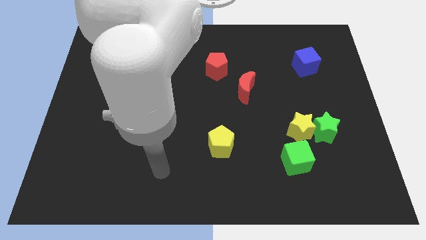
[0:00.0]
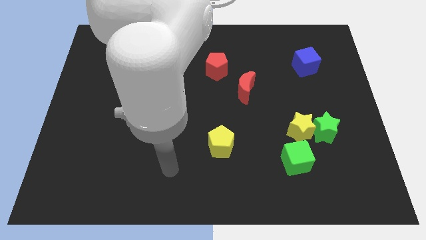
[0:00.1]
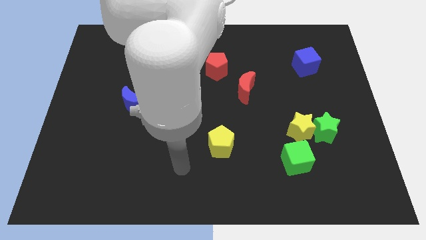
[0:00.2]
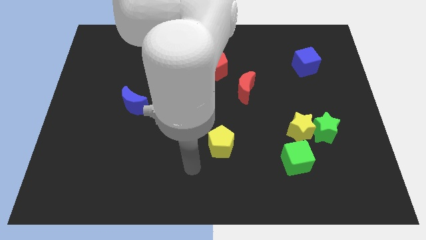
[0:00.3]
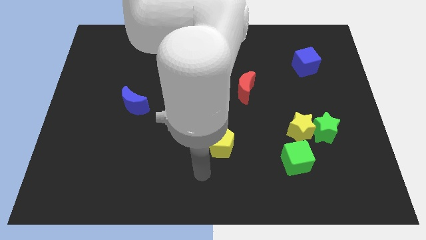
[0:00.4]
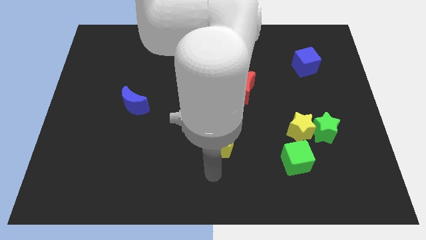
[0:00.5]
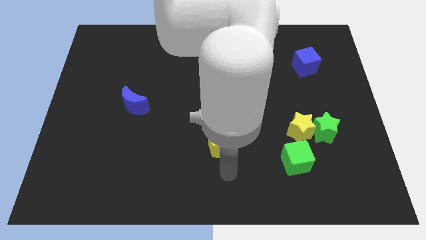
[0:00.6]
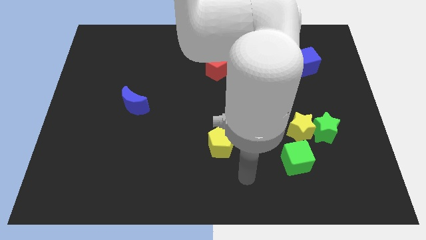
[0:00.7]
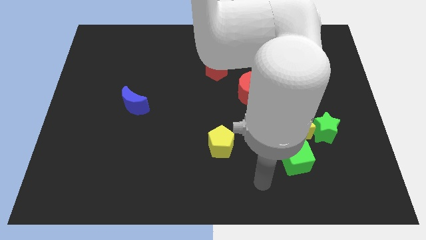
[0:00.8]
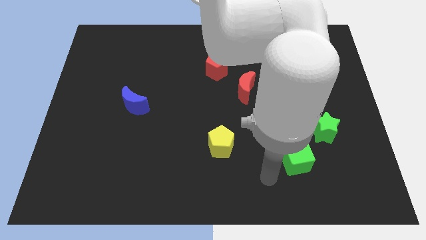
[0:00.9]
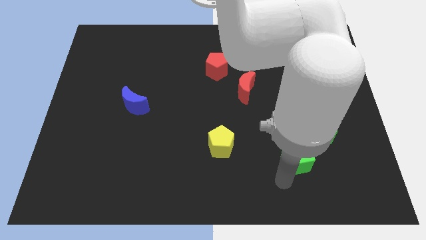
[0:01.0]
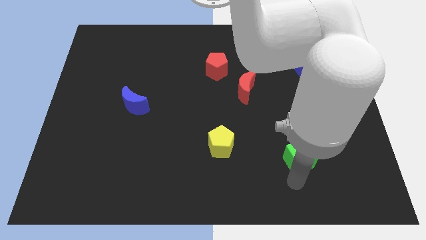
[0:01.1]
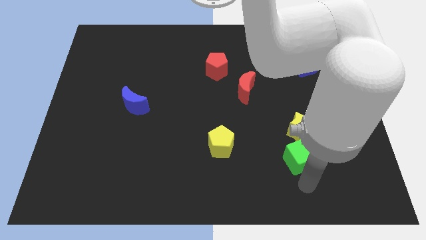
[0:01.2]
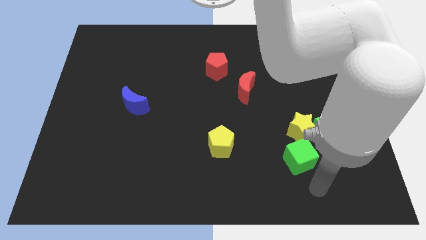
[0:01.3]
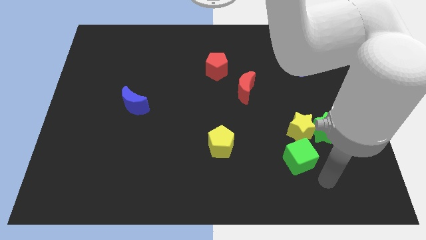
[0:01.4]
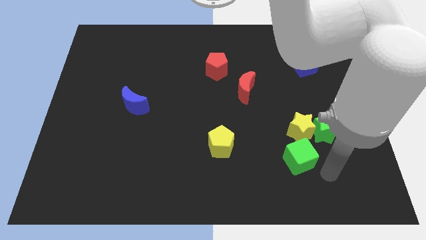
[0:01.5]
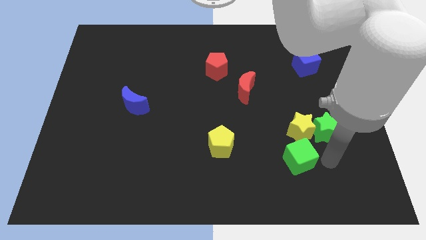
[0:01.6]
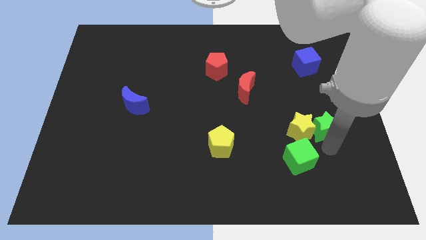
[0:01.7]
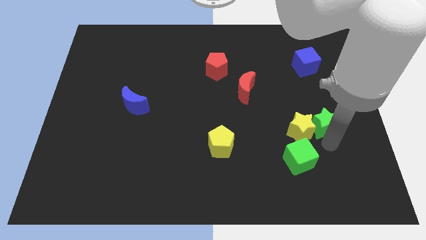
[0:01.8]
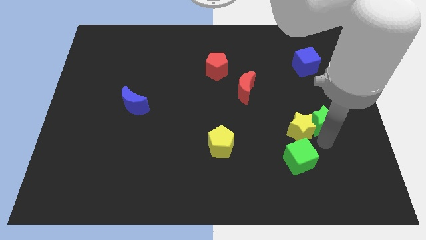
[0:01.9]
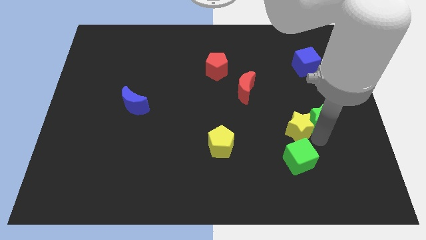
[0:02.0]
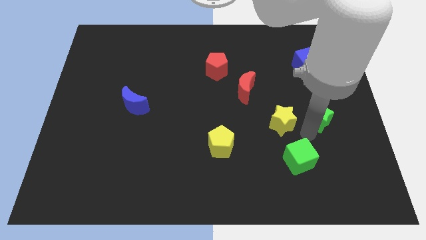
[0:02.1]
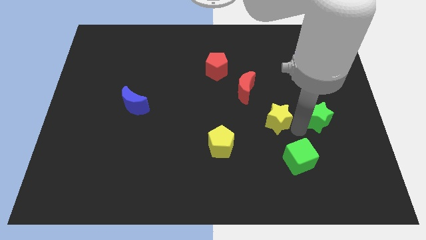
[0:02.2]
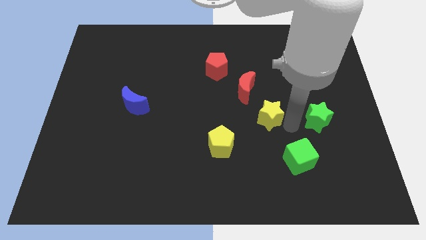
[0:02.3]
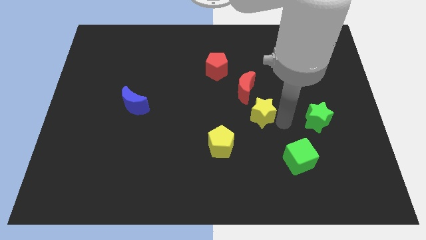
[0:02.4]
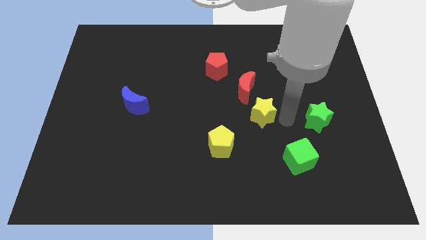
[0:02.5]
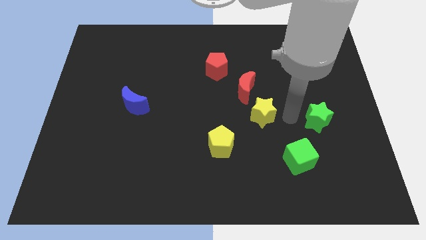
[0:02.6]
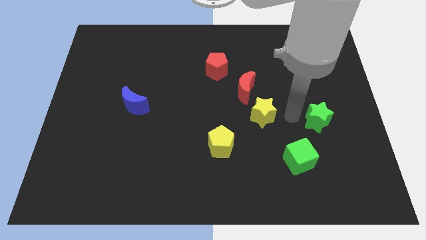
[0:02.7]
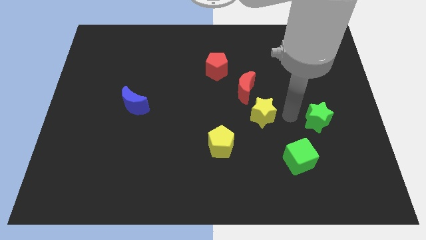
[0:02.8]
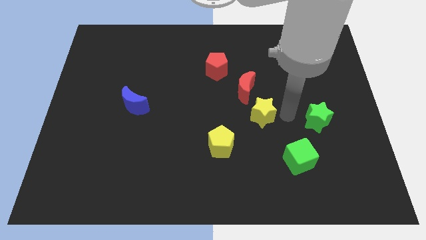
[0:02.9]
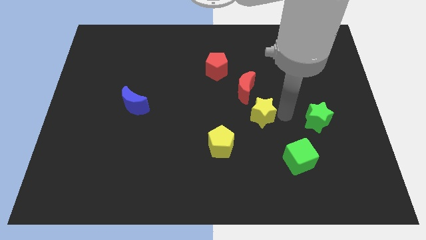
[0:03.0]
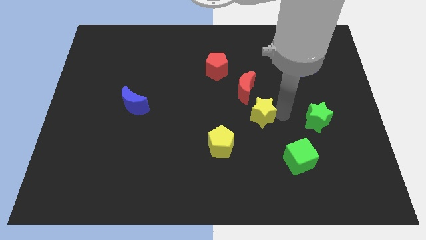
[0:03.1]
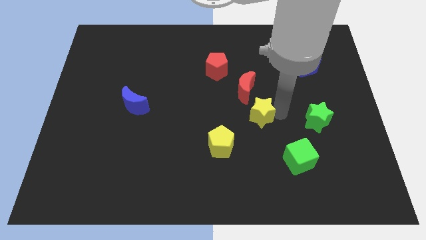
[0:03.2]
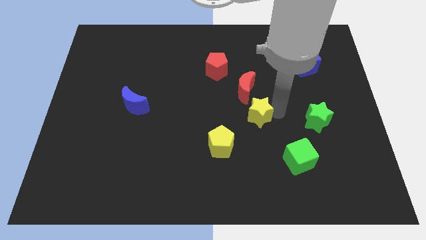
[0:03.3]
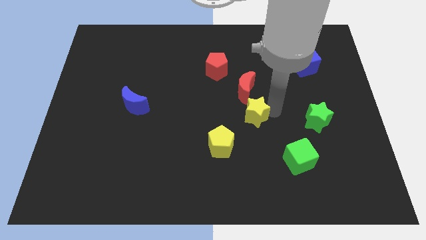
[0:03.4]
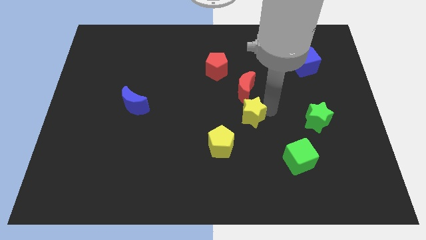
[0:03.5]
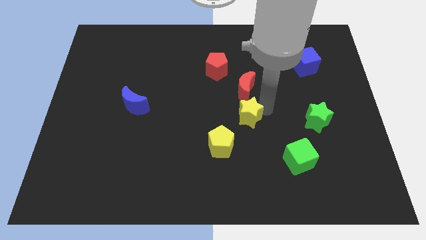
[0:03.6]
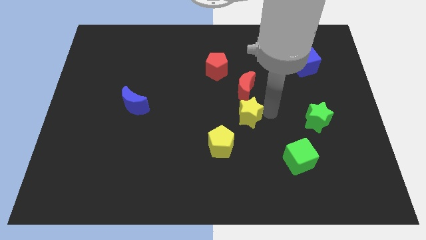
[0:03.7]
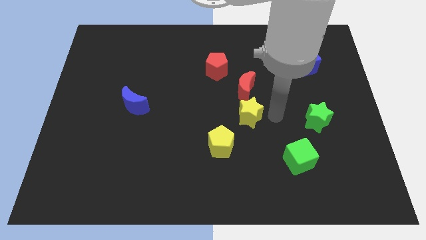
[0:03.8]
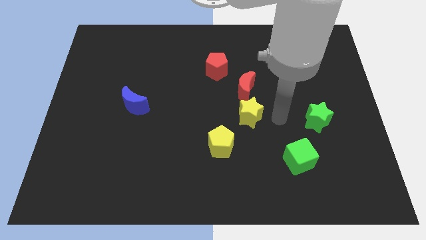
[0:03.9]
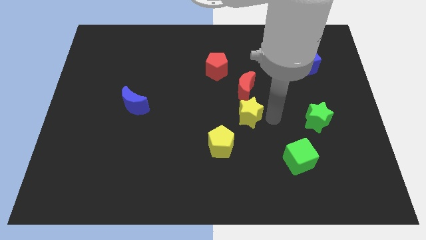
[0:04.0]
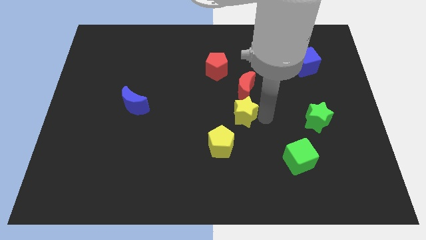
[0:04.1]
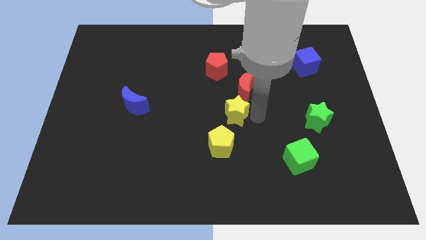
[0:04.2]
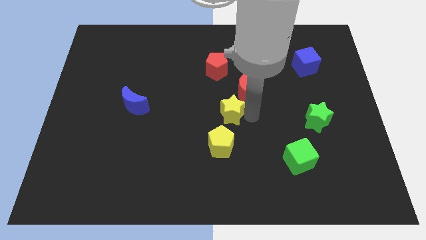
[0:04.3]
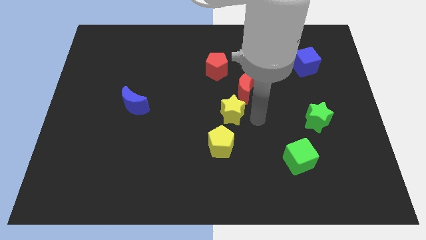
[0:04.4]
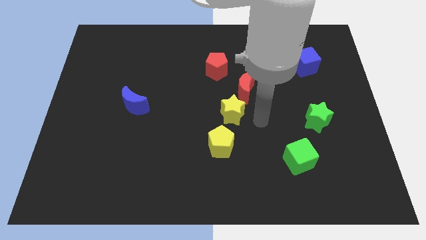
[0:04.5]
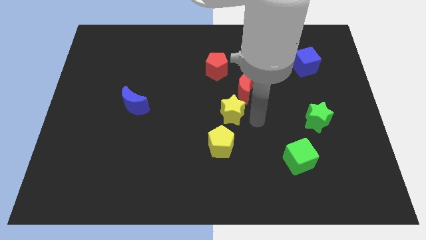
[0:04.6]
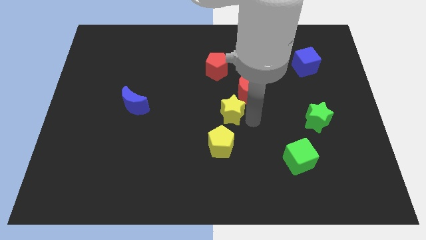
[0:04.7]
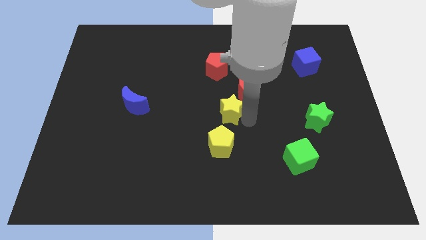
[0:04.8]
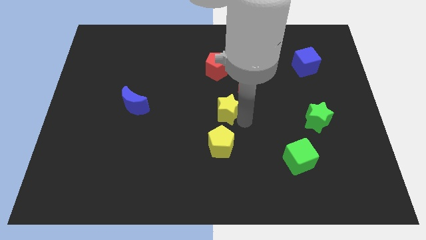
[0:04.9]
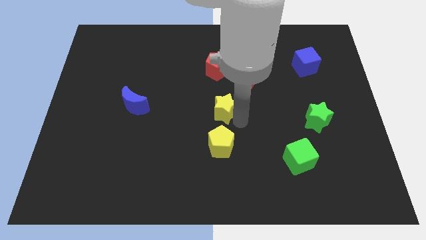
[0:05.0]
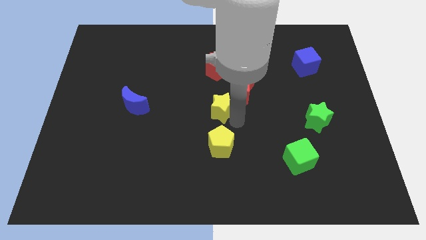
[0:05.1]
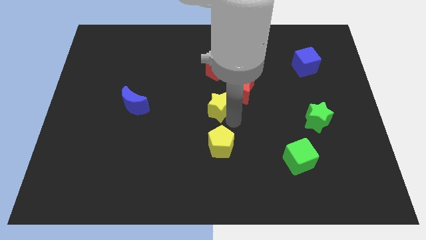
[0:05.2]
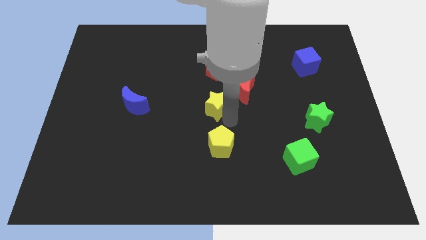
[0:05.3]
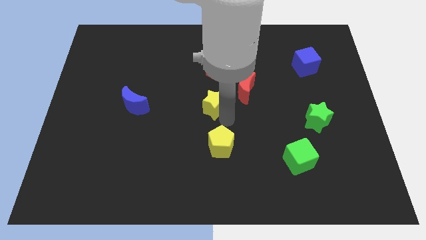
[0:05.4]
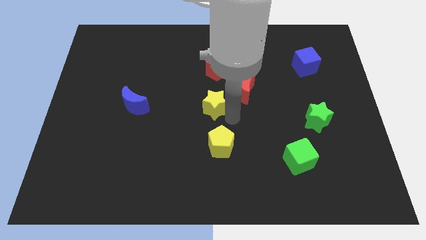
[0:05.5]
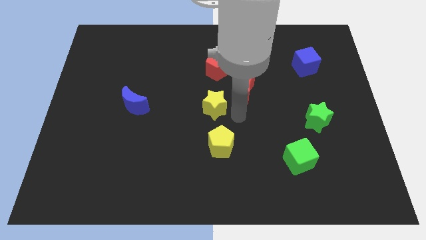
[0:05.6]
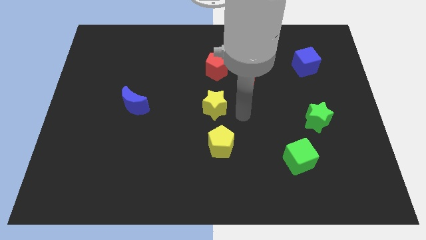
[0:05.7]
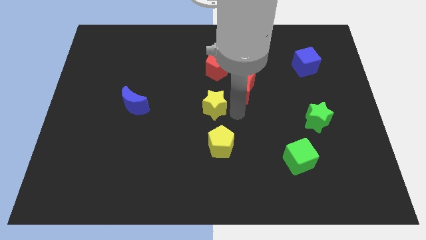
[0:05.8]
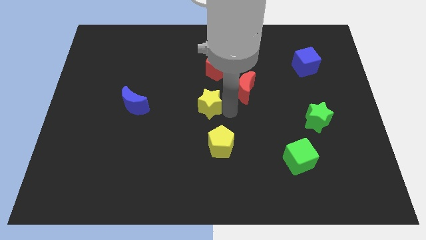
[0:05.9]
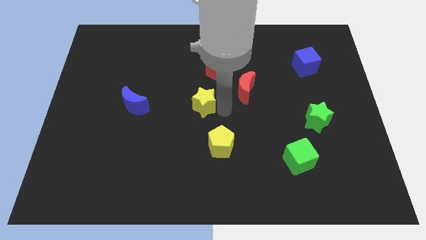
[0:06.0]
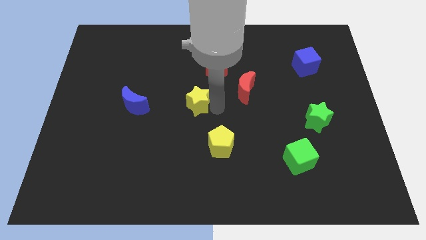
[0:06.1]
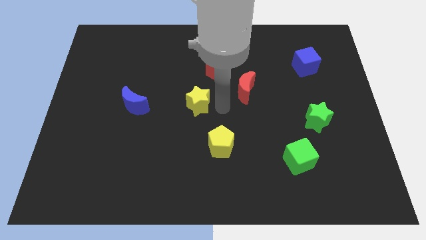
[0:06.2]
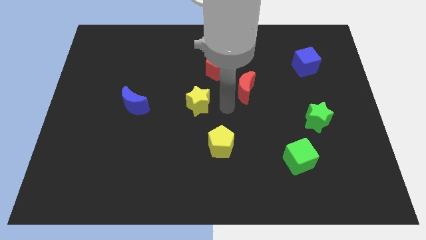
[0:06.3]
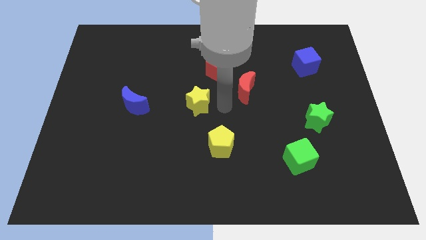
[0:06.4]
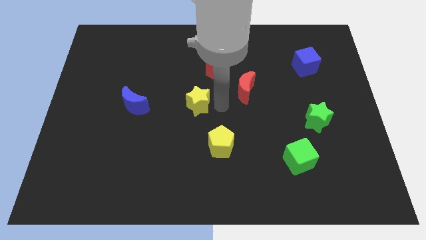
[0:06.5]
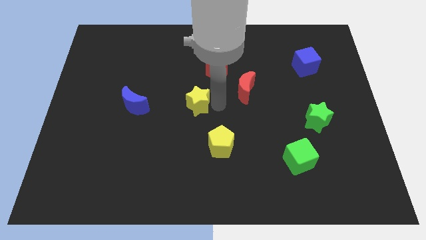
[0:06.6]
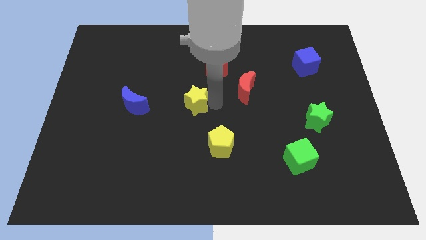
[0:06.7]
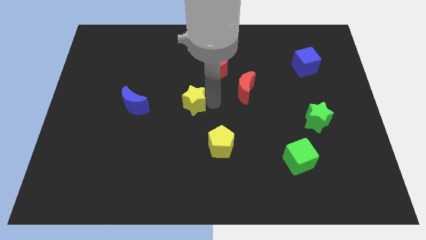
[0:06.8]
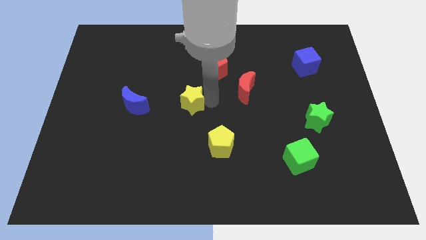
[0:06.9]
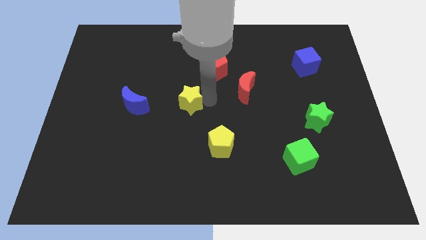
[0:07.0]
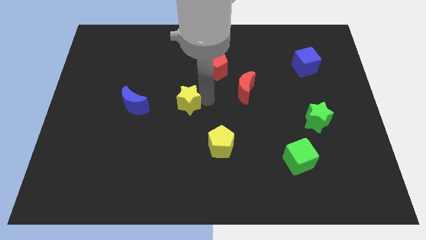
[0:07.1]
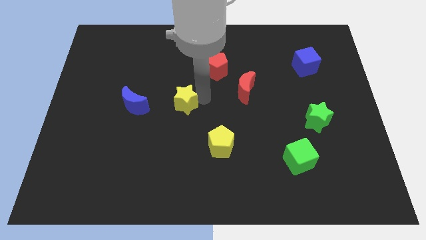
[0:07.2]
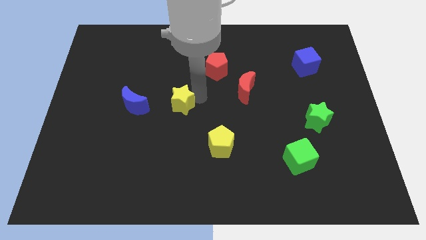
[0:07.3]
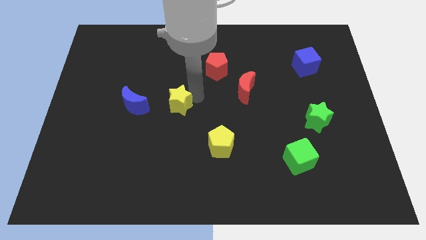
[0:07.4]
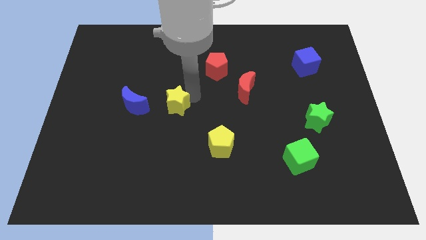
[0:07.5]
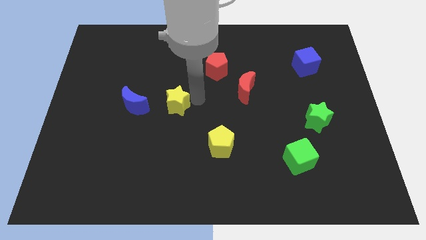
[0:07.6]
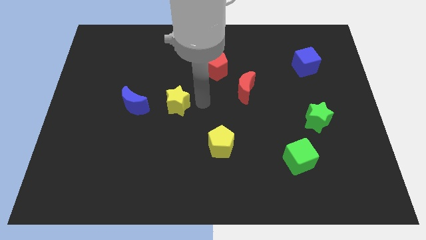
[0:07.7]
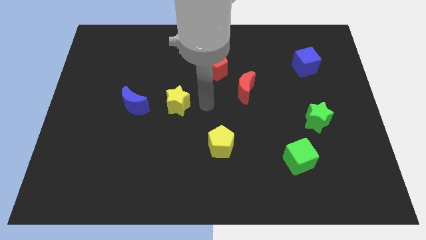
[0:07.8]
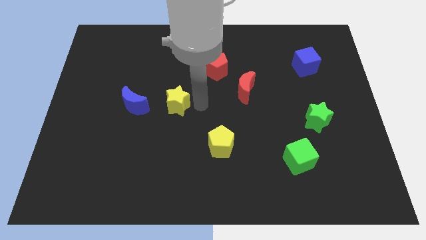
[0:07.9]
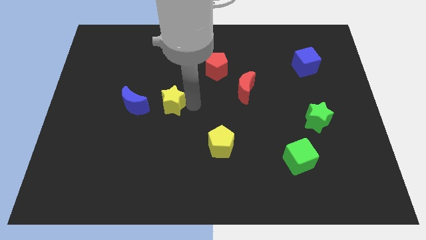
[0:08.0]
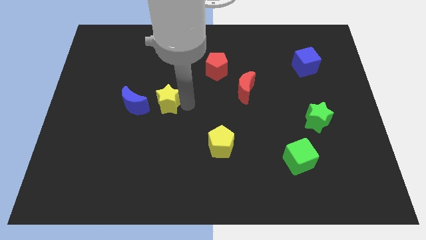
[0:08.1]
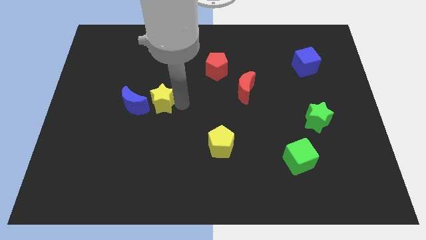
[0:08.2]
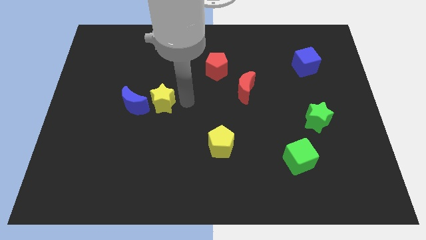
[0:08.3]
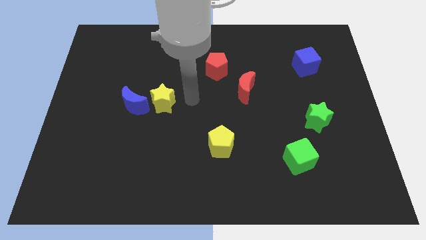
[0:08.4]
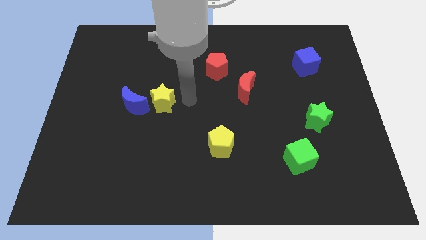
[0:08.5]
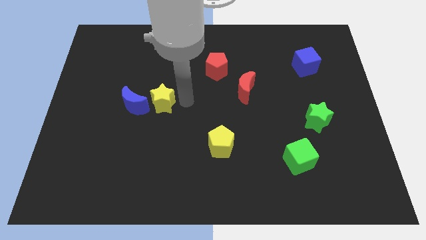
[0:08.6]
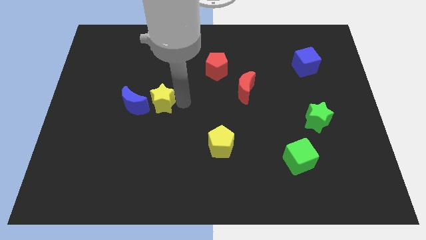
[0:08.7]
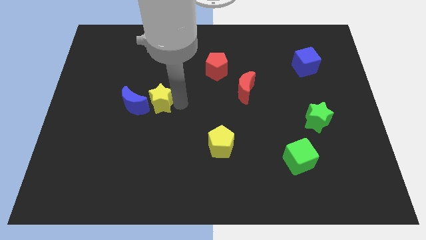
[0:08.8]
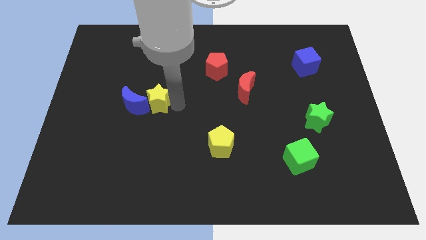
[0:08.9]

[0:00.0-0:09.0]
push the yellow star close to the blue moon
